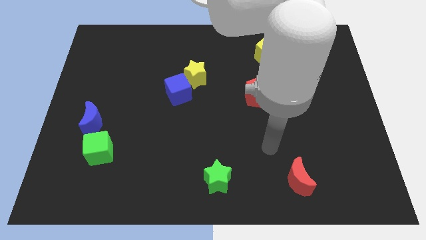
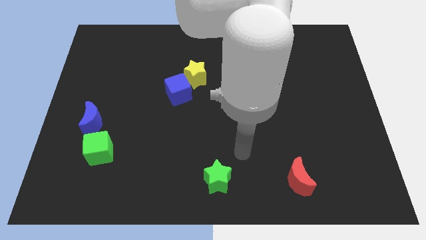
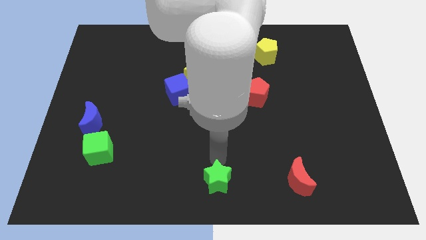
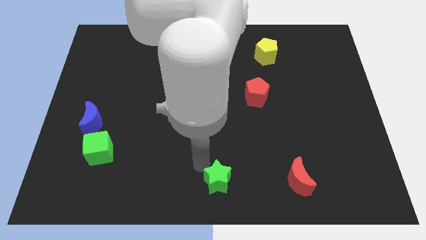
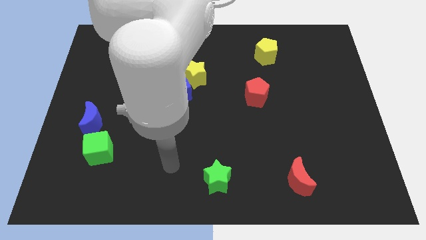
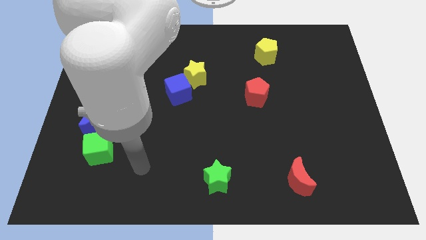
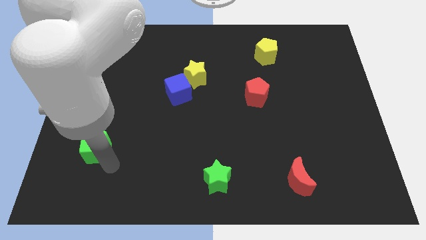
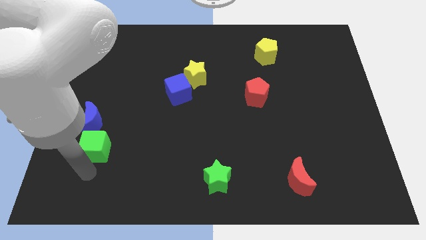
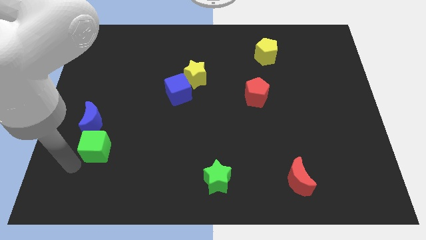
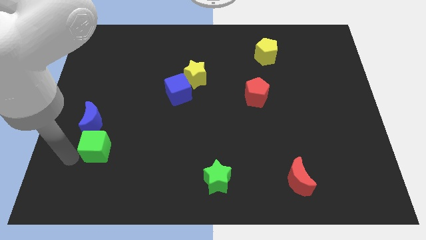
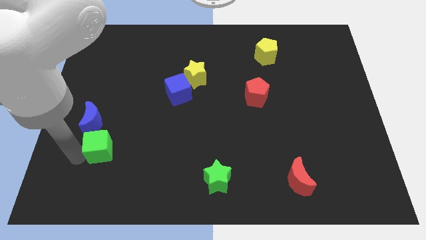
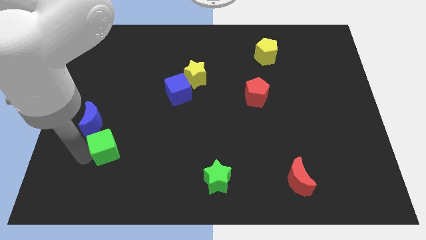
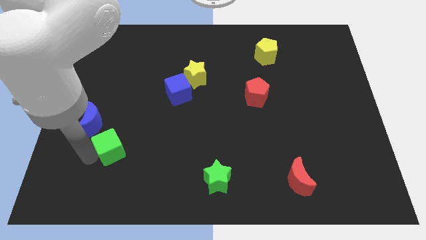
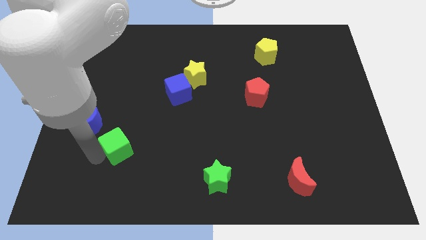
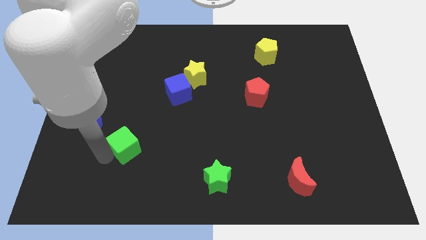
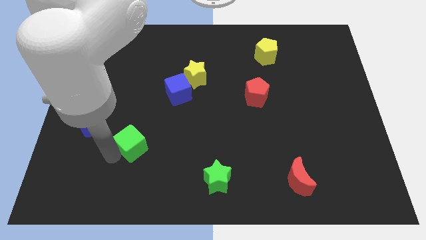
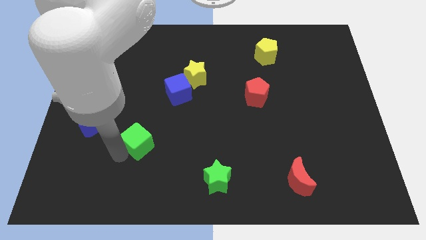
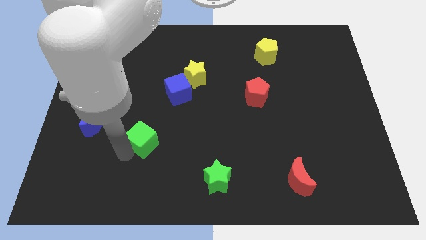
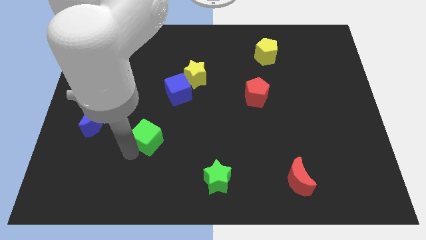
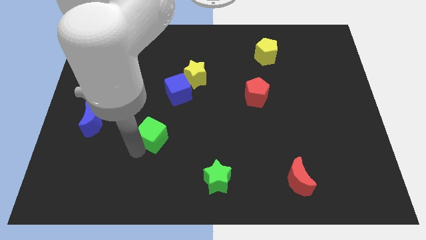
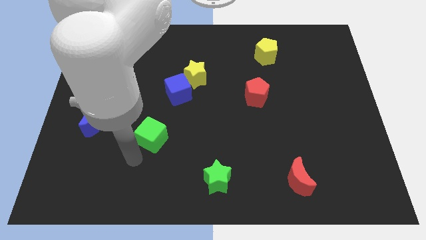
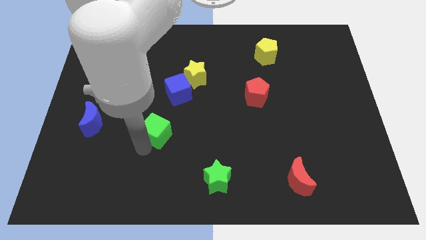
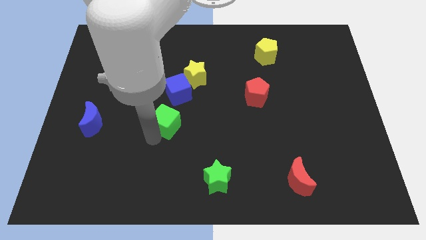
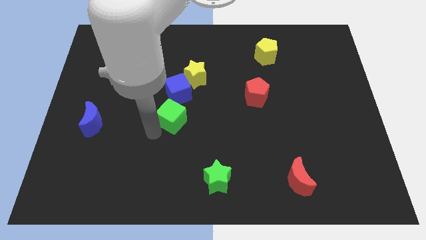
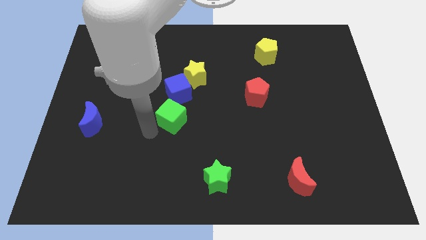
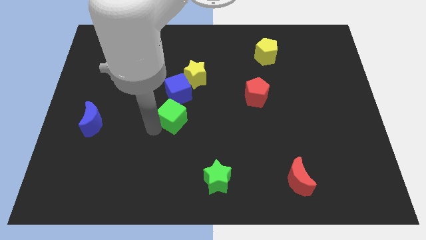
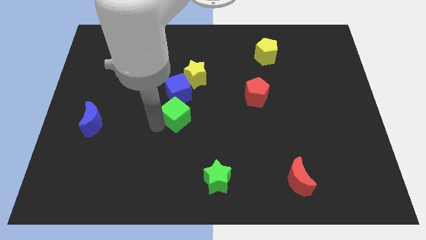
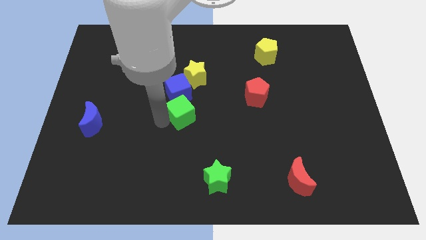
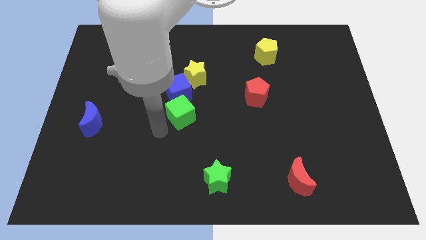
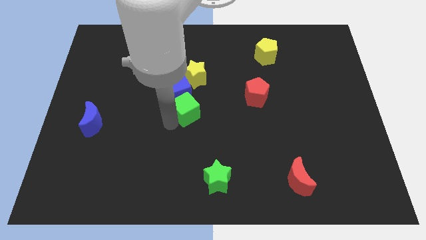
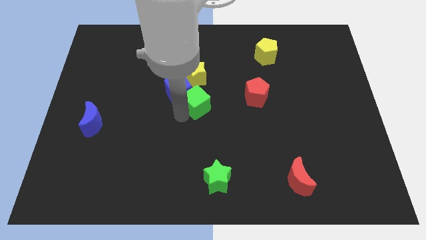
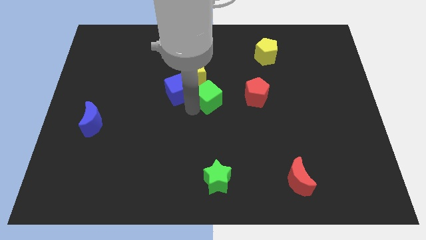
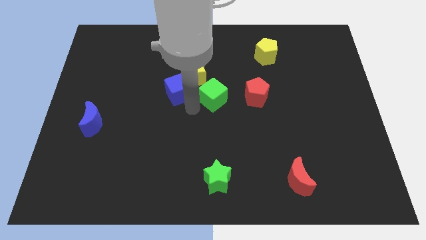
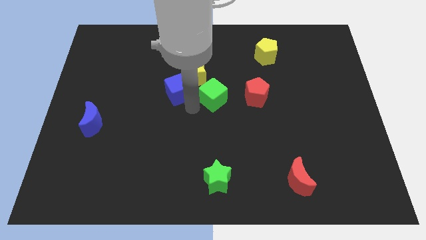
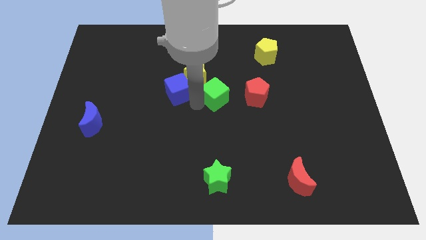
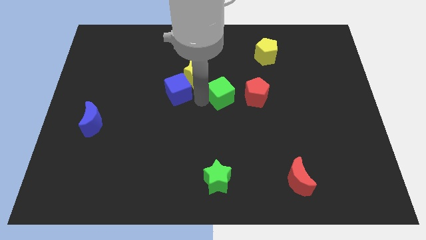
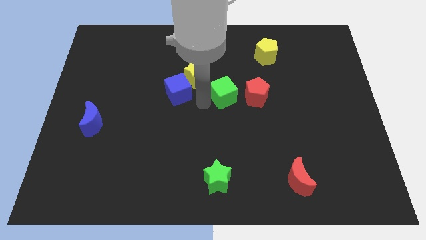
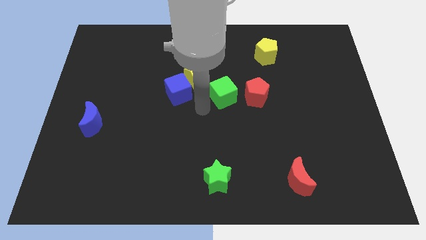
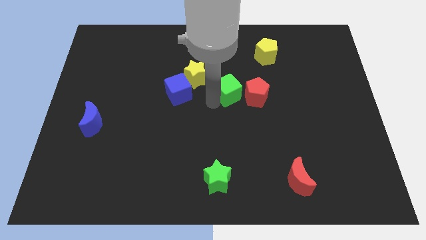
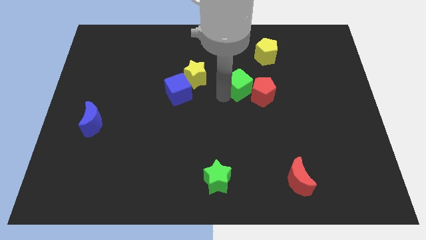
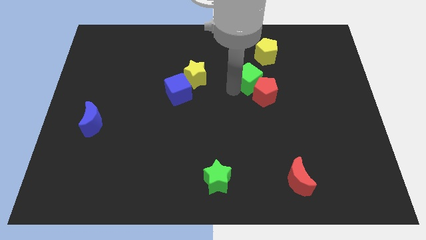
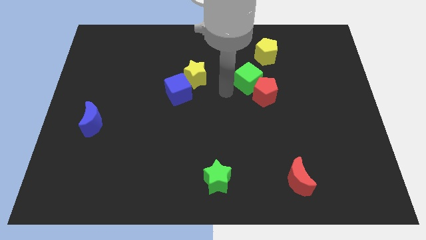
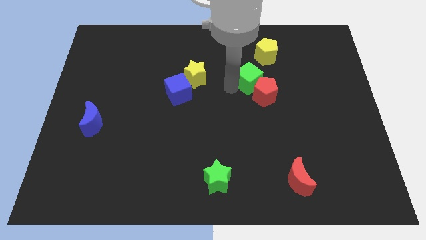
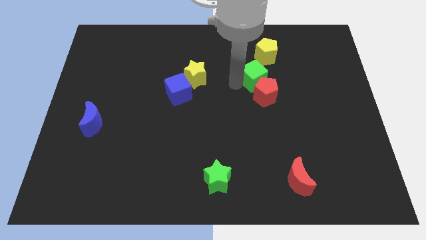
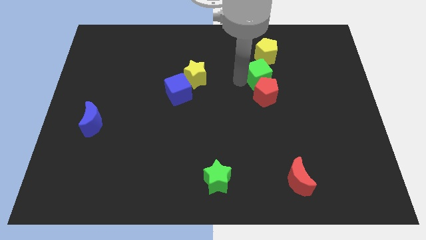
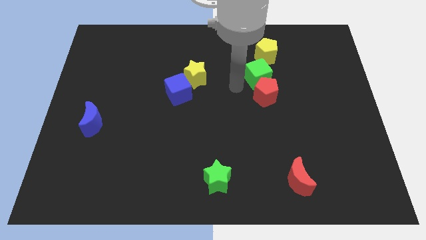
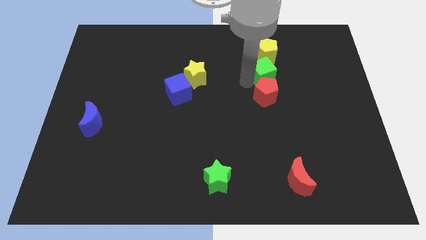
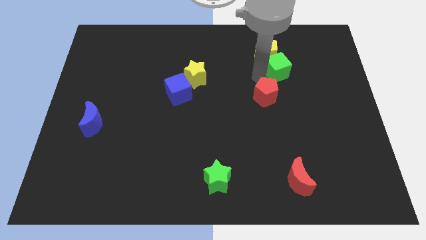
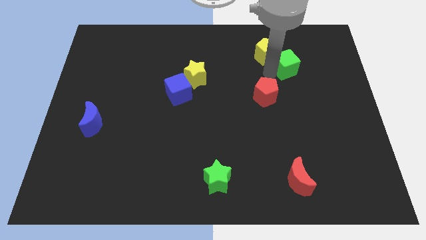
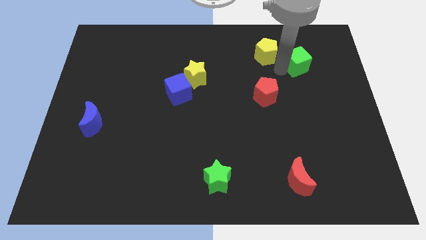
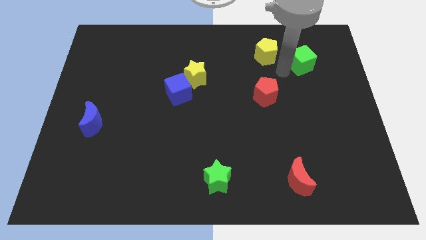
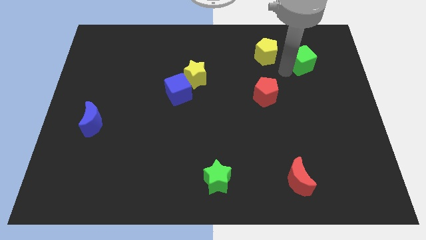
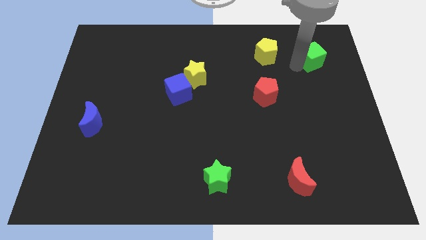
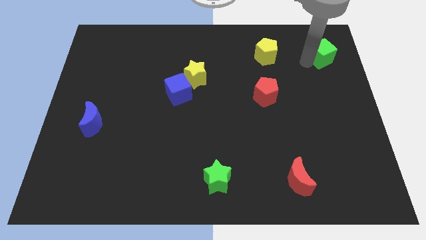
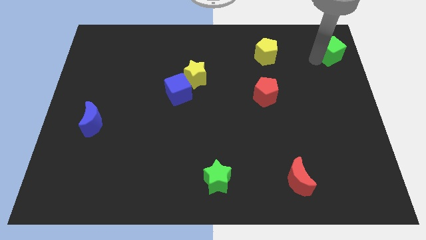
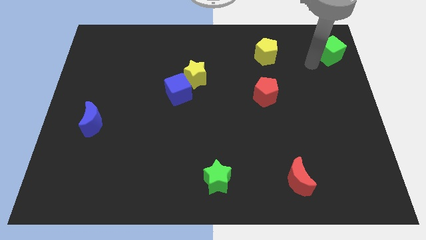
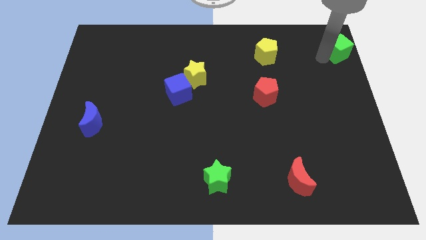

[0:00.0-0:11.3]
push the green cube to the top right of the board
